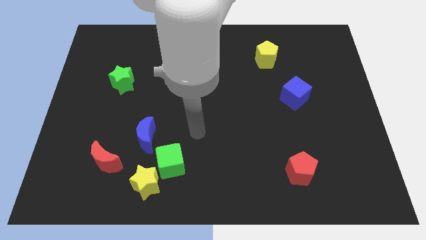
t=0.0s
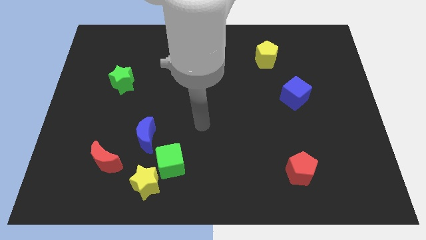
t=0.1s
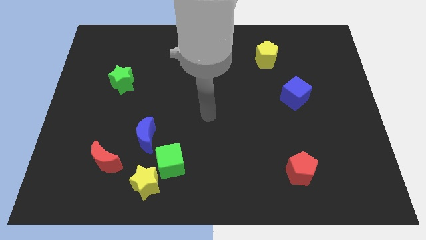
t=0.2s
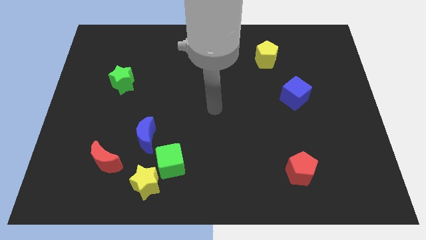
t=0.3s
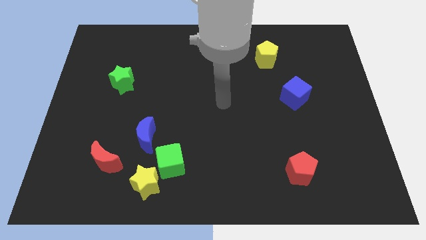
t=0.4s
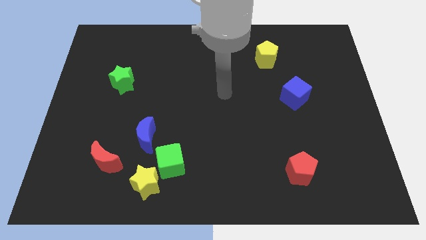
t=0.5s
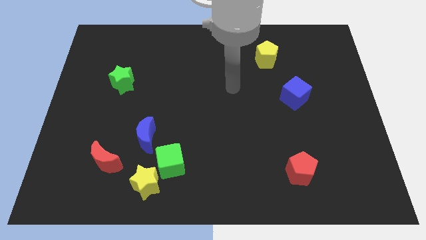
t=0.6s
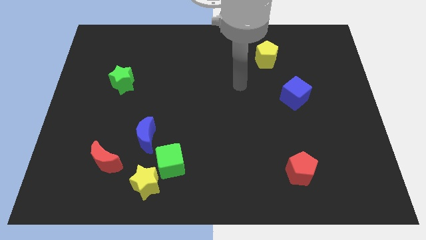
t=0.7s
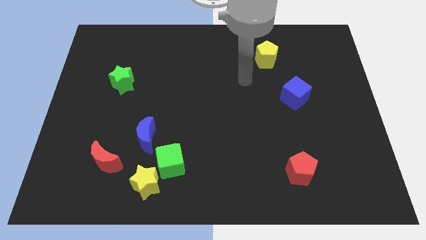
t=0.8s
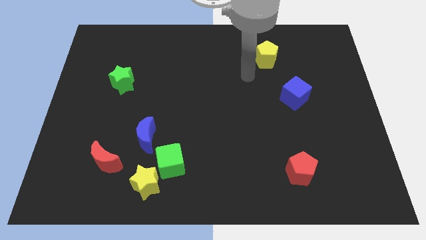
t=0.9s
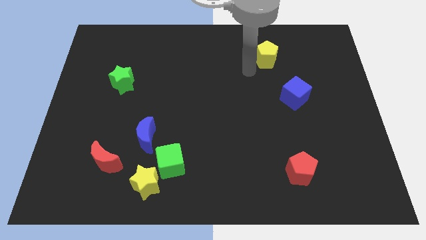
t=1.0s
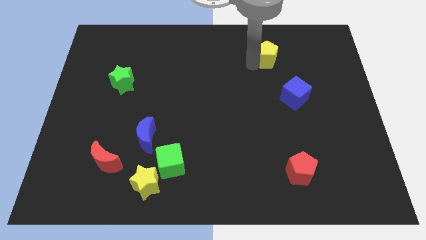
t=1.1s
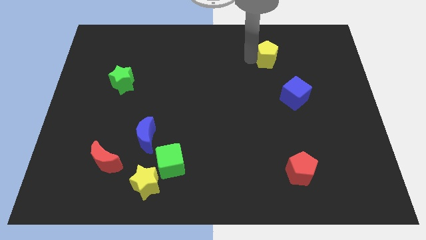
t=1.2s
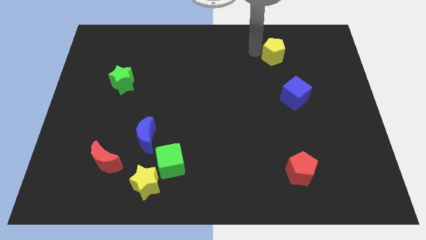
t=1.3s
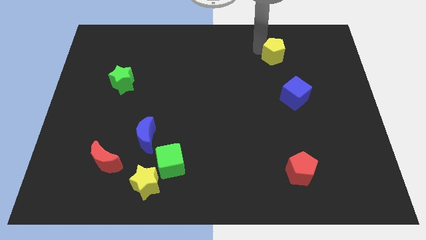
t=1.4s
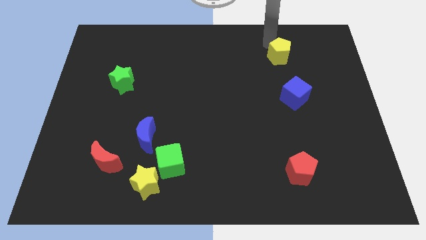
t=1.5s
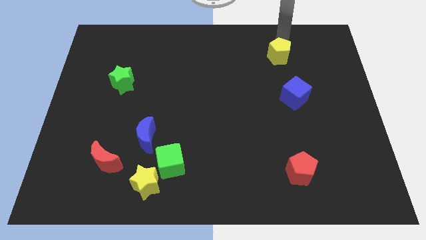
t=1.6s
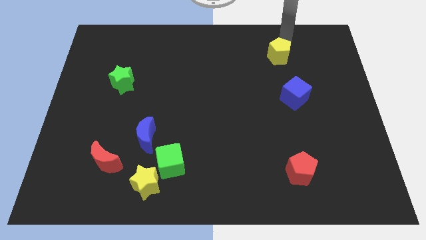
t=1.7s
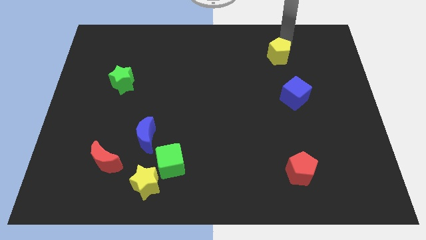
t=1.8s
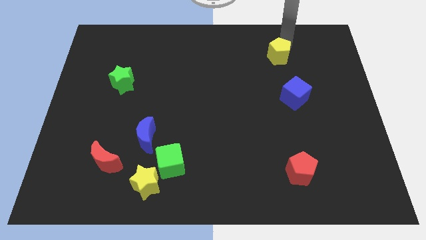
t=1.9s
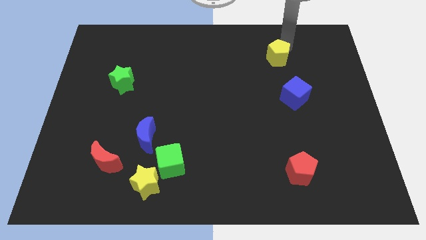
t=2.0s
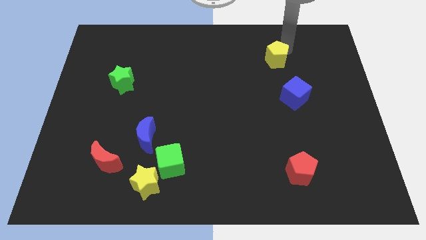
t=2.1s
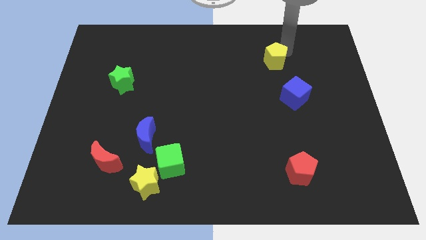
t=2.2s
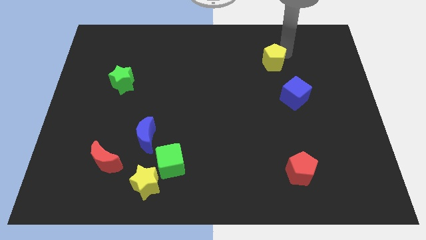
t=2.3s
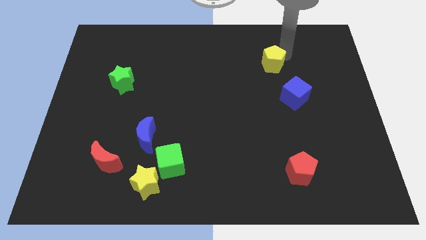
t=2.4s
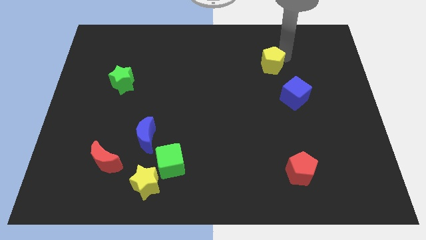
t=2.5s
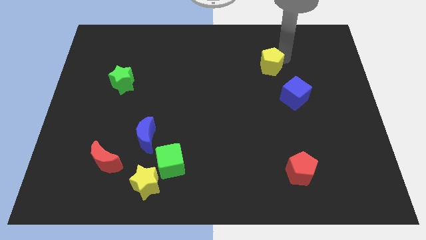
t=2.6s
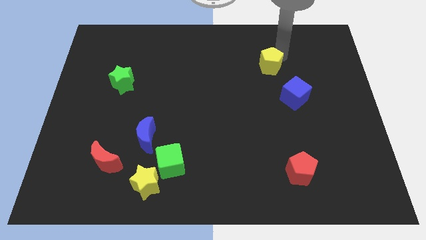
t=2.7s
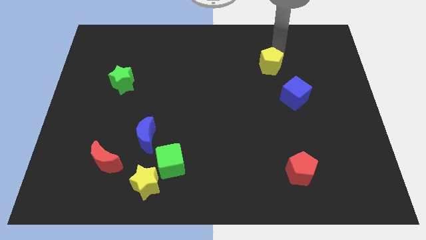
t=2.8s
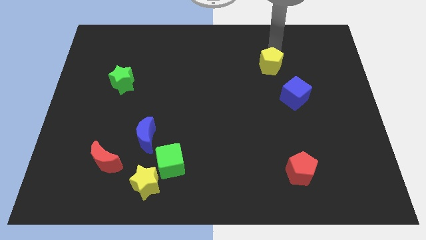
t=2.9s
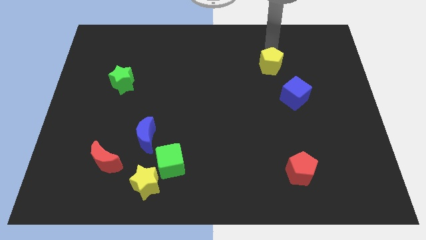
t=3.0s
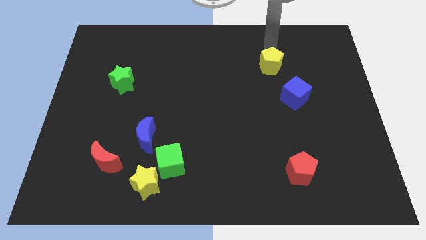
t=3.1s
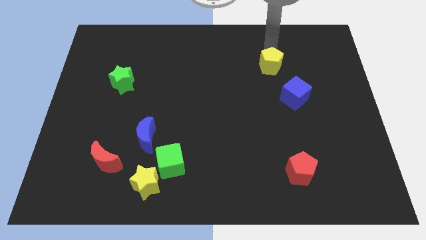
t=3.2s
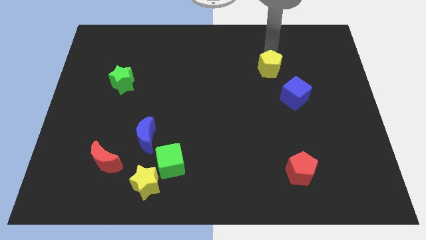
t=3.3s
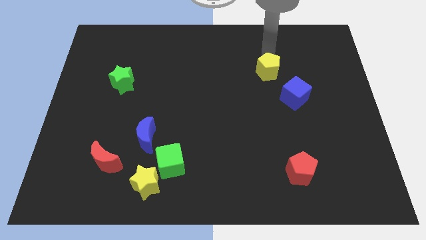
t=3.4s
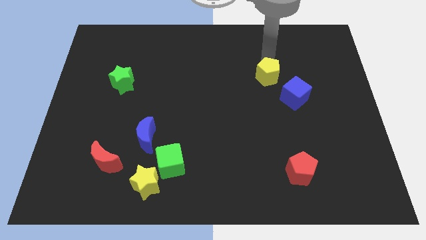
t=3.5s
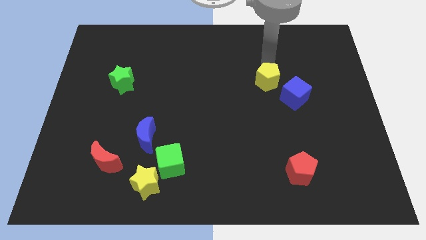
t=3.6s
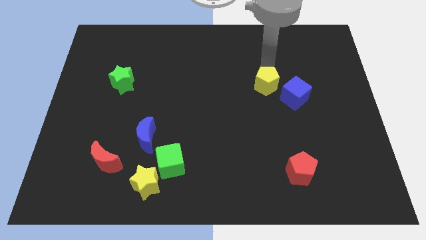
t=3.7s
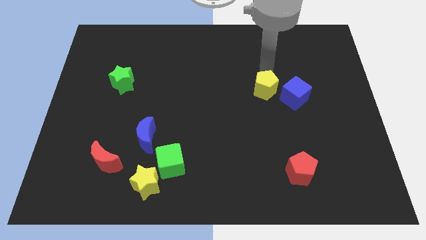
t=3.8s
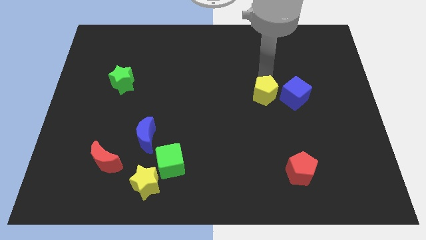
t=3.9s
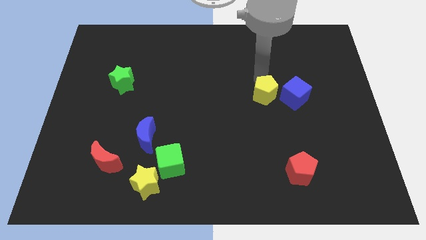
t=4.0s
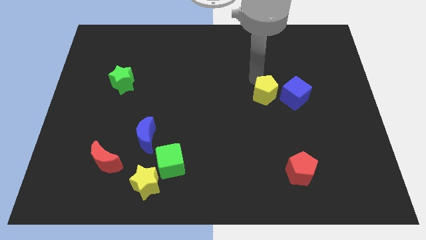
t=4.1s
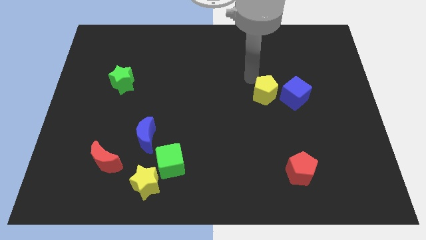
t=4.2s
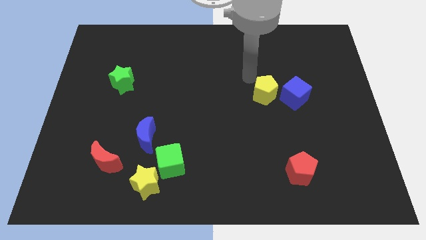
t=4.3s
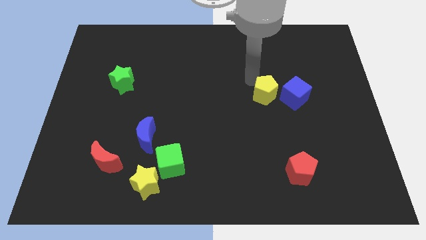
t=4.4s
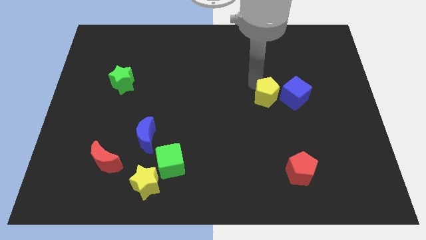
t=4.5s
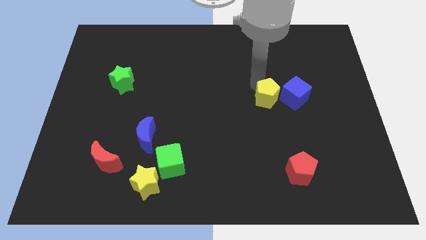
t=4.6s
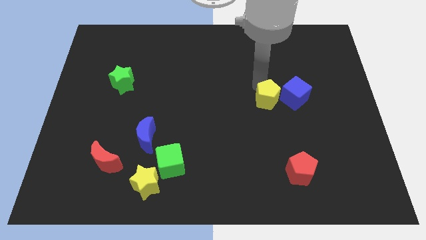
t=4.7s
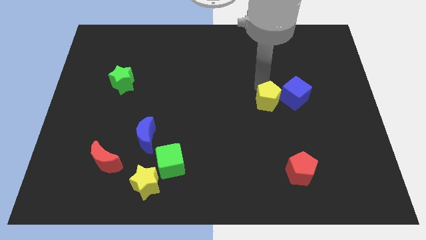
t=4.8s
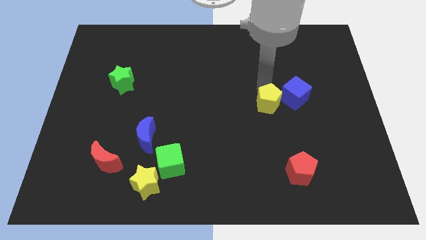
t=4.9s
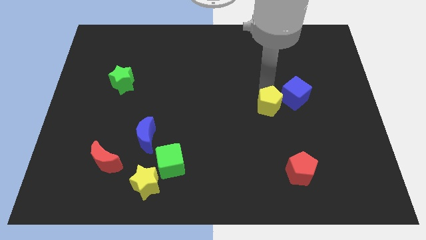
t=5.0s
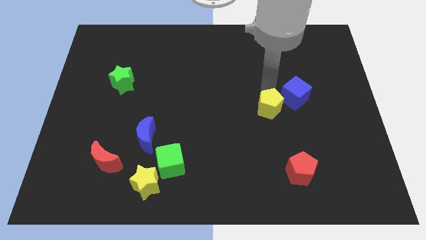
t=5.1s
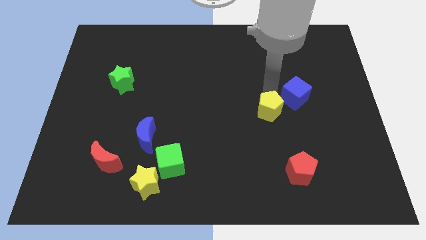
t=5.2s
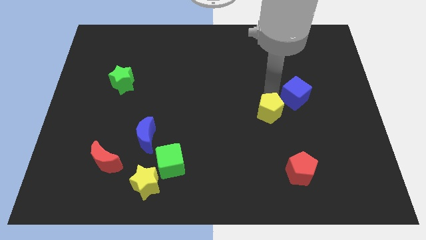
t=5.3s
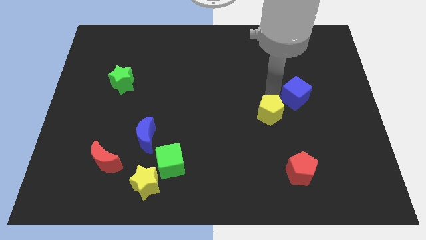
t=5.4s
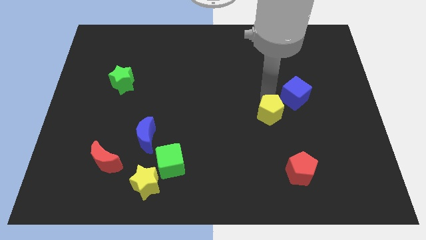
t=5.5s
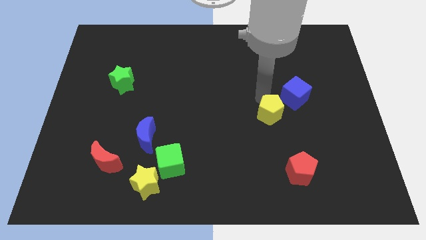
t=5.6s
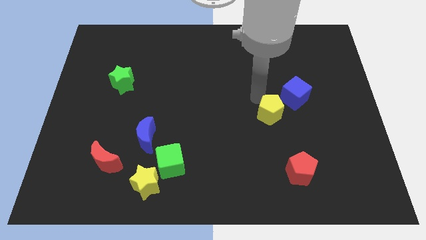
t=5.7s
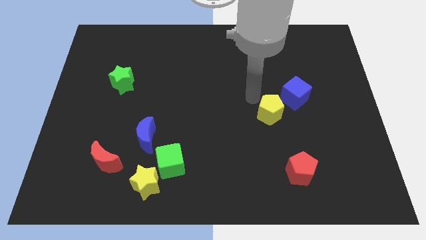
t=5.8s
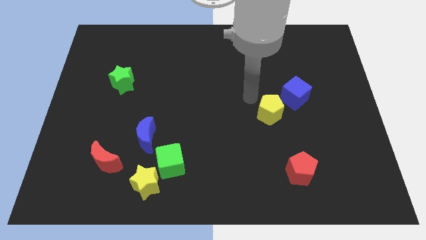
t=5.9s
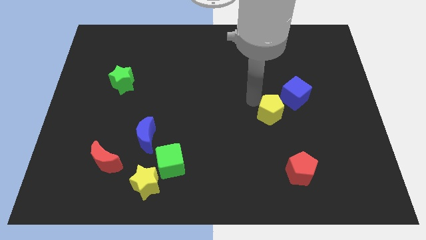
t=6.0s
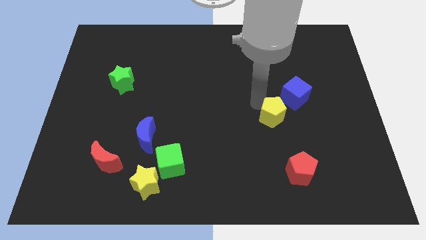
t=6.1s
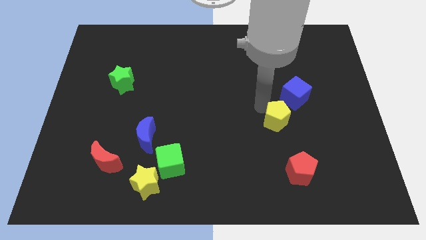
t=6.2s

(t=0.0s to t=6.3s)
push the yellow pentagon downwards

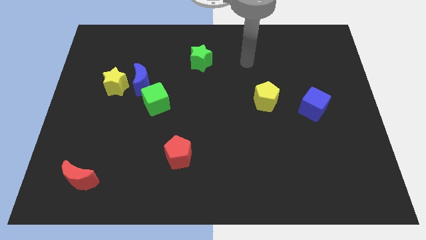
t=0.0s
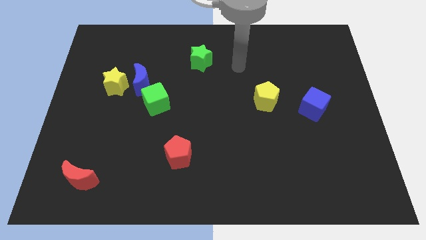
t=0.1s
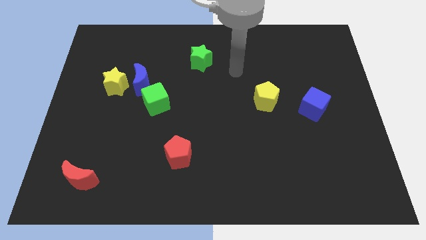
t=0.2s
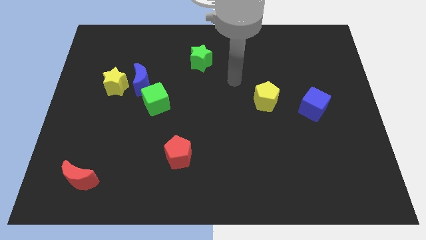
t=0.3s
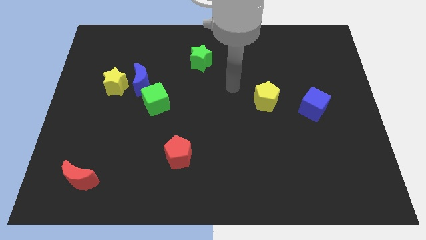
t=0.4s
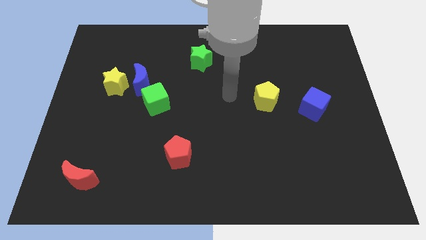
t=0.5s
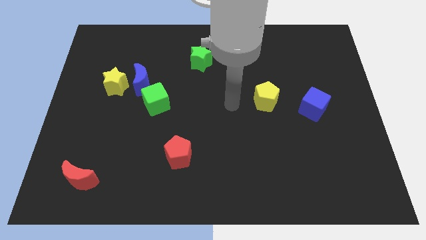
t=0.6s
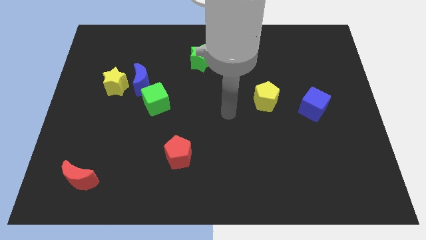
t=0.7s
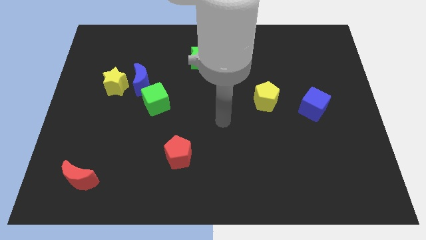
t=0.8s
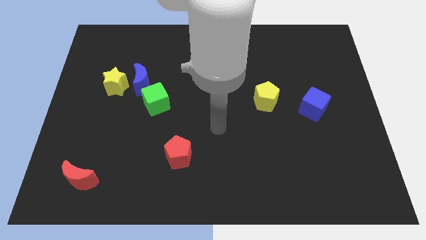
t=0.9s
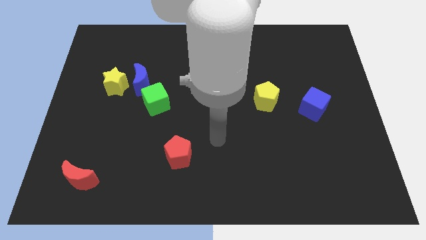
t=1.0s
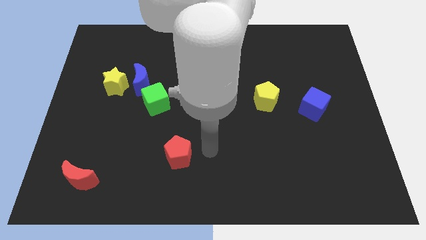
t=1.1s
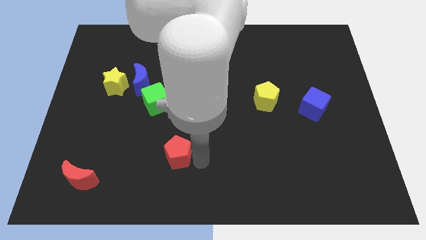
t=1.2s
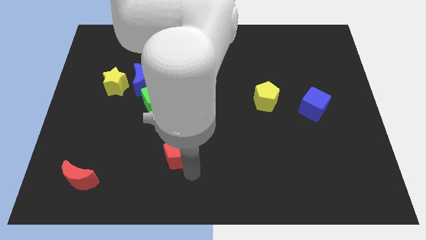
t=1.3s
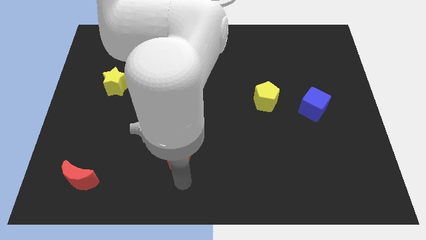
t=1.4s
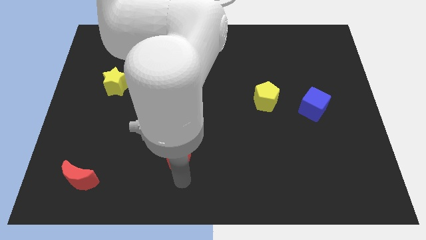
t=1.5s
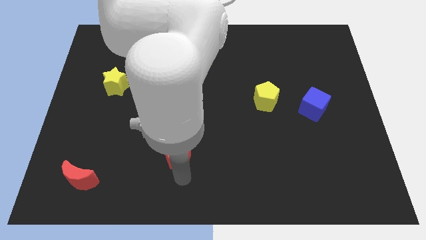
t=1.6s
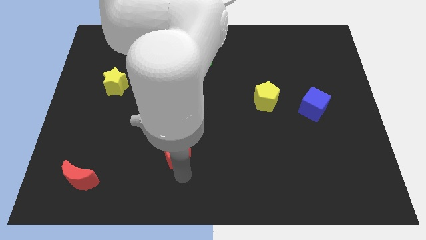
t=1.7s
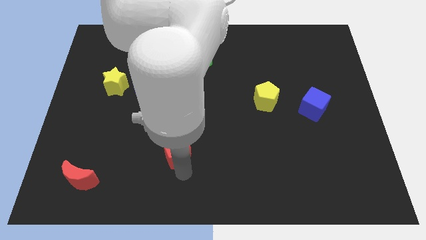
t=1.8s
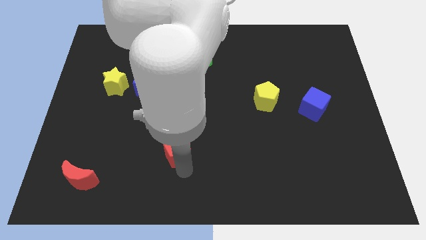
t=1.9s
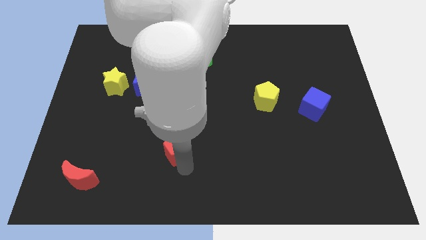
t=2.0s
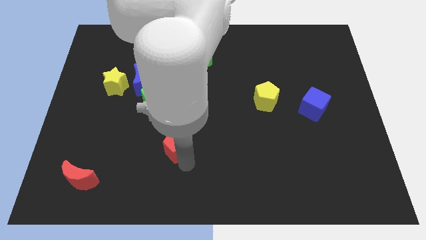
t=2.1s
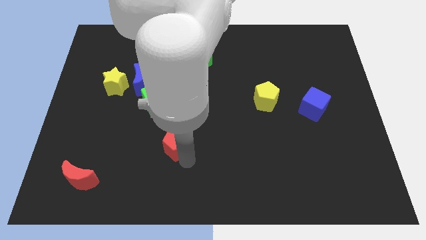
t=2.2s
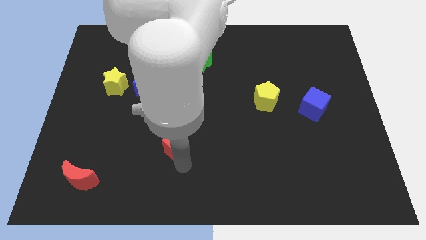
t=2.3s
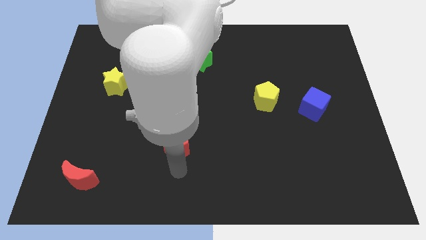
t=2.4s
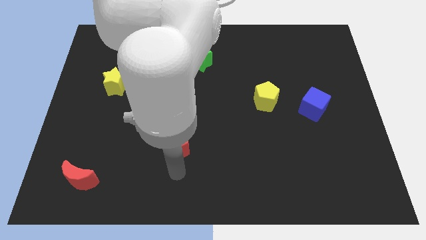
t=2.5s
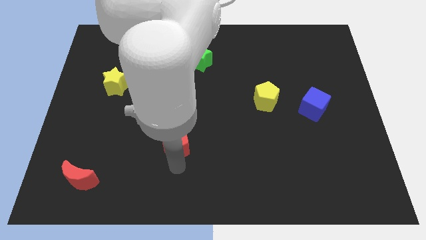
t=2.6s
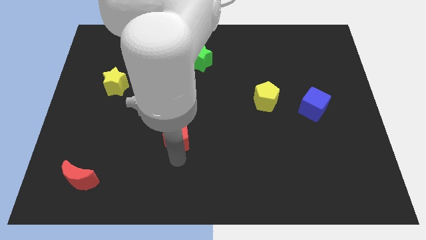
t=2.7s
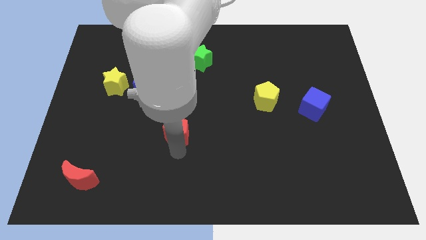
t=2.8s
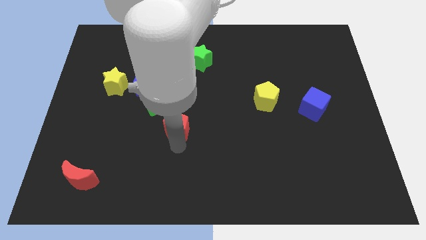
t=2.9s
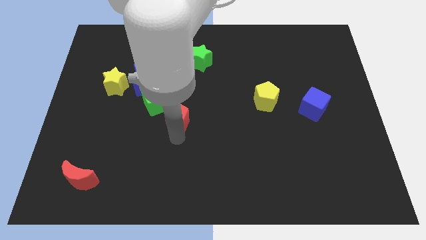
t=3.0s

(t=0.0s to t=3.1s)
push the red pentagon a little bit upwards
